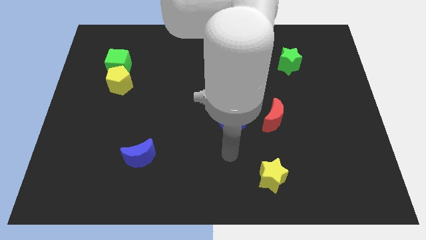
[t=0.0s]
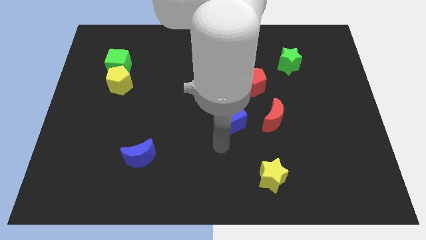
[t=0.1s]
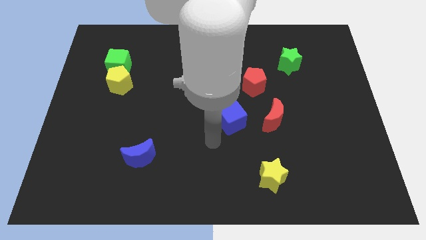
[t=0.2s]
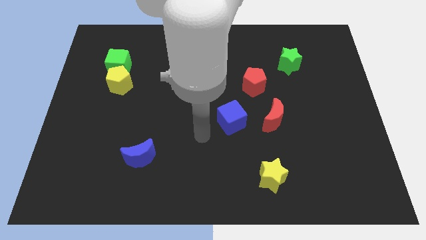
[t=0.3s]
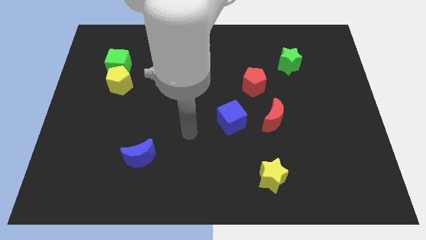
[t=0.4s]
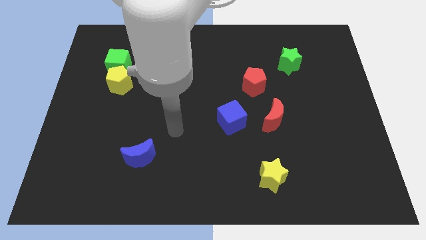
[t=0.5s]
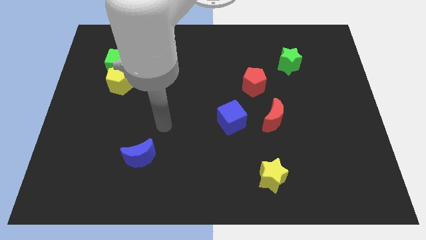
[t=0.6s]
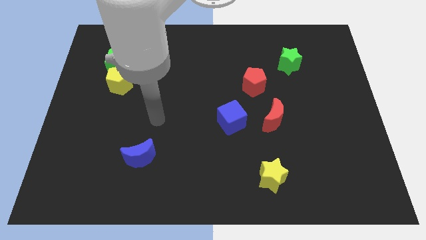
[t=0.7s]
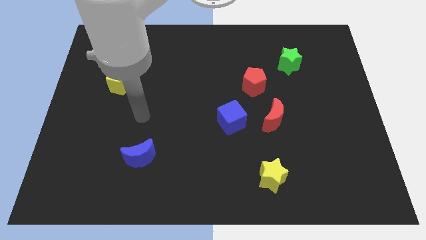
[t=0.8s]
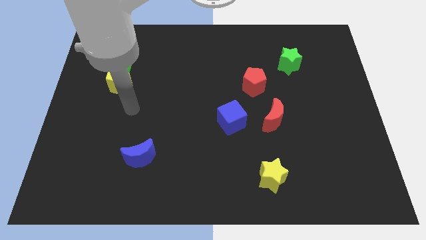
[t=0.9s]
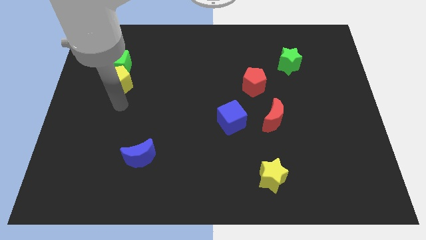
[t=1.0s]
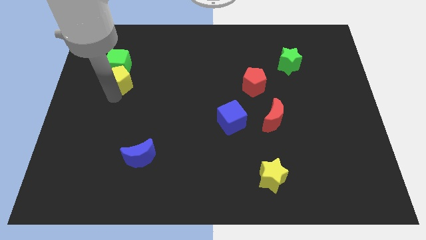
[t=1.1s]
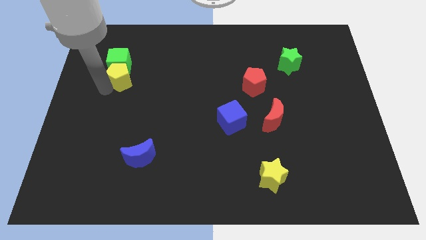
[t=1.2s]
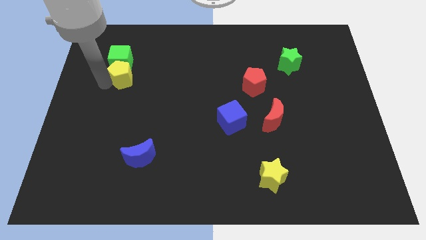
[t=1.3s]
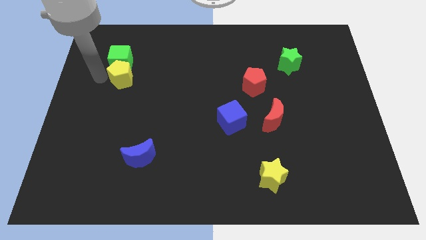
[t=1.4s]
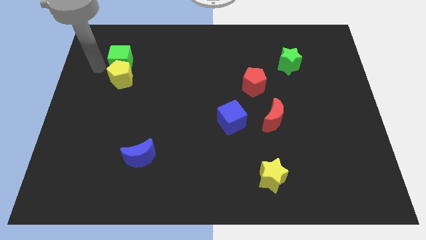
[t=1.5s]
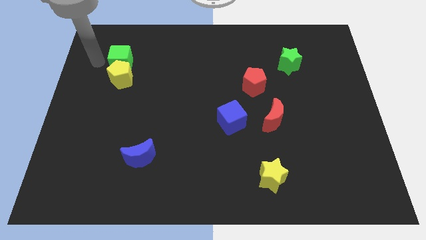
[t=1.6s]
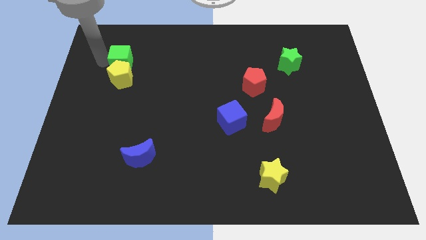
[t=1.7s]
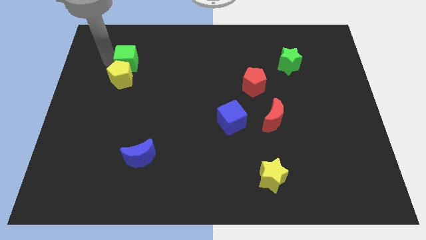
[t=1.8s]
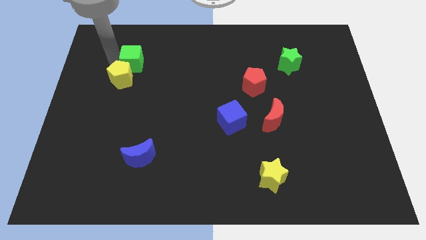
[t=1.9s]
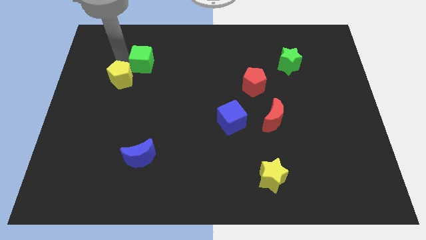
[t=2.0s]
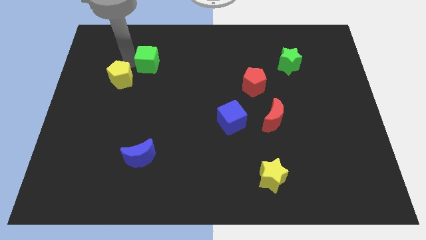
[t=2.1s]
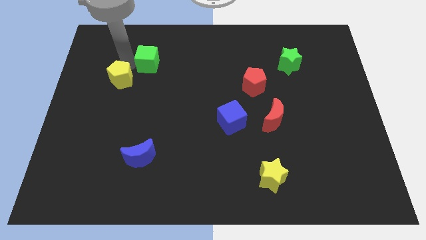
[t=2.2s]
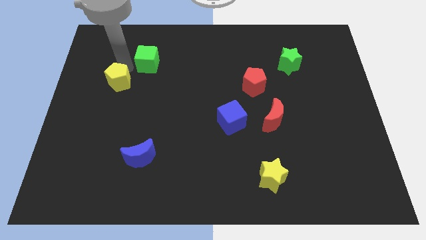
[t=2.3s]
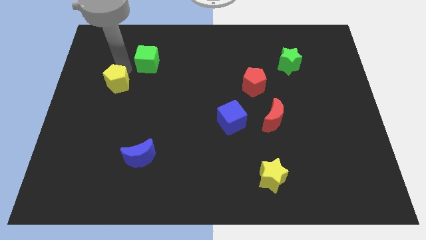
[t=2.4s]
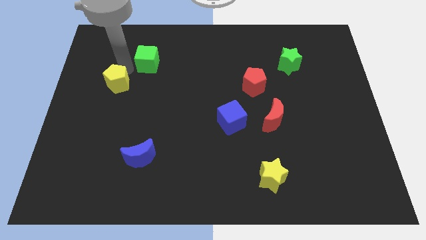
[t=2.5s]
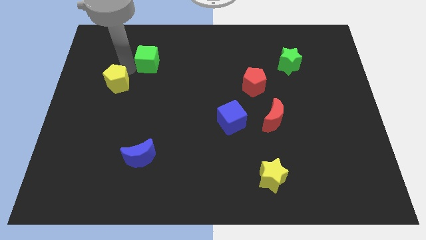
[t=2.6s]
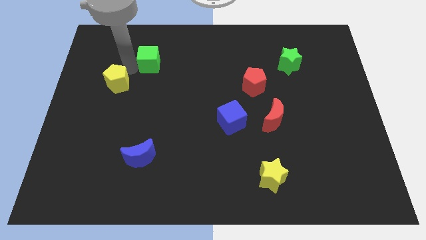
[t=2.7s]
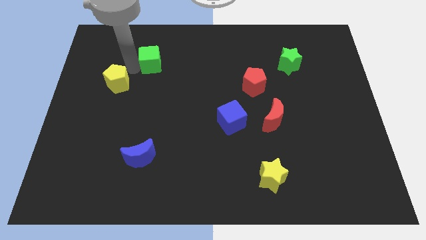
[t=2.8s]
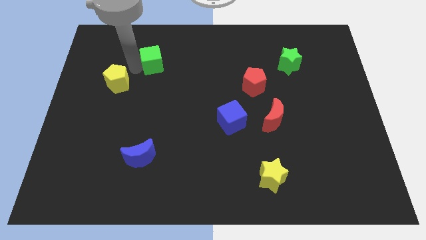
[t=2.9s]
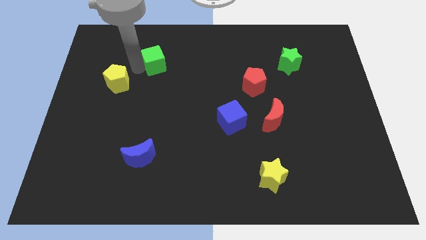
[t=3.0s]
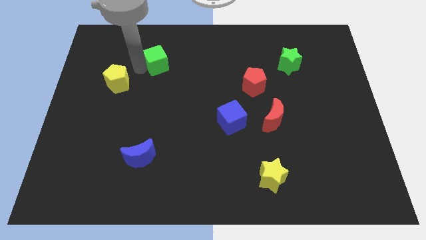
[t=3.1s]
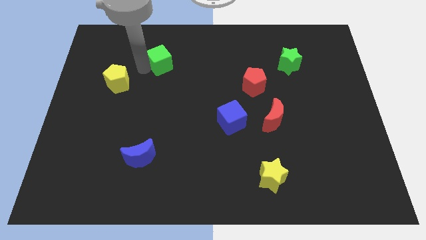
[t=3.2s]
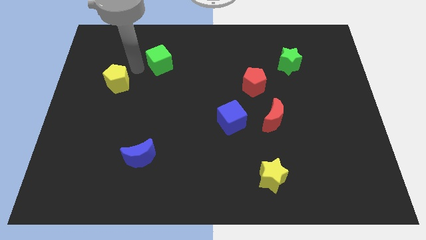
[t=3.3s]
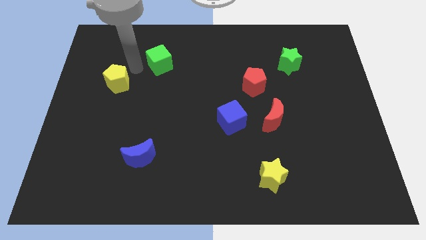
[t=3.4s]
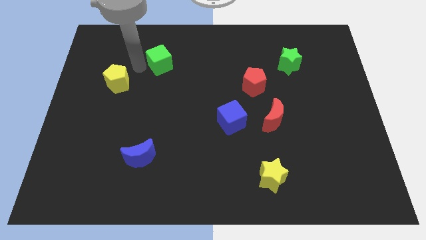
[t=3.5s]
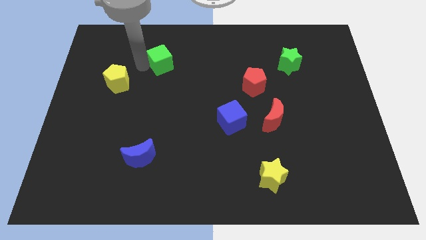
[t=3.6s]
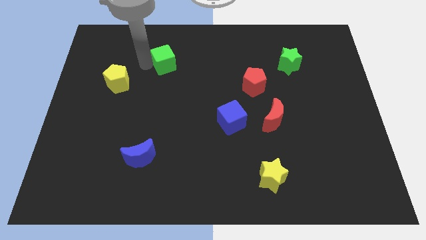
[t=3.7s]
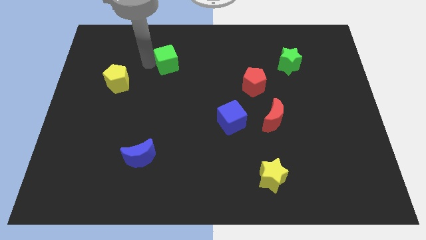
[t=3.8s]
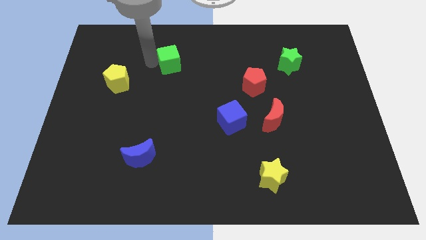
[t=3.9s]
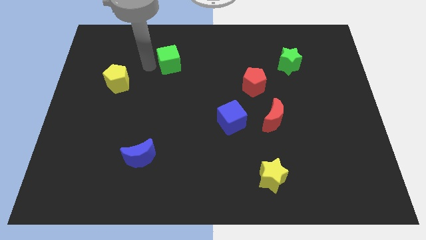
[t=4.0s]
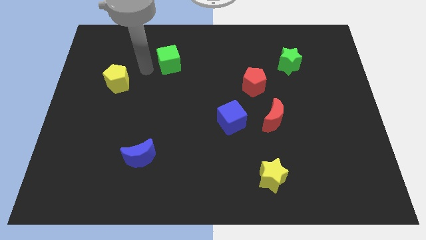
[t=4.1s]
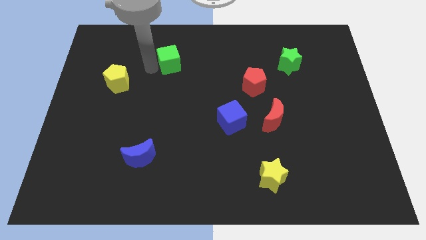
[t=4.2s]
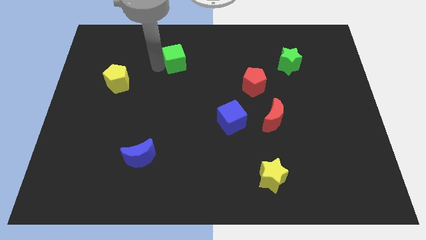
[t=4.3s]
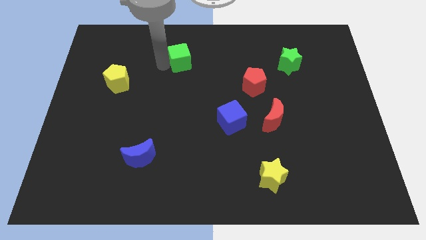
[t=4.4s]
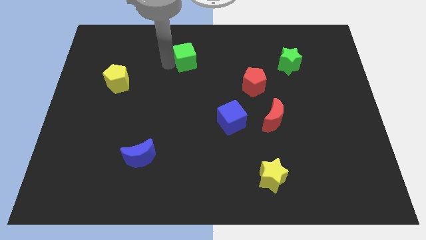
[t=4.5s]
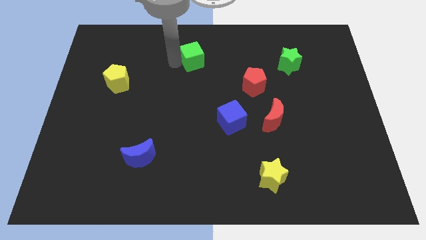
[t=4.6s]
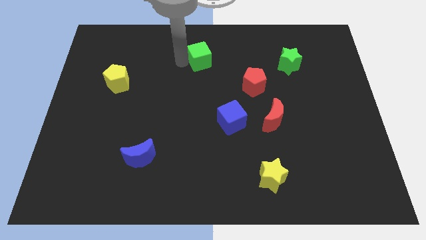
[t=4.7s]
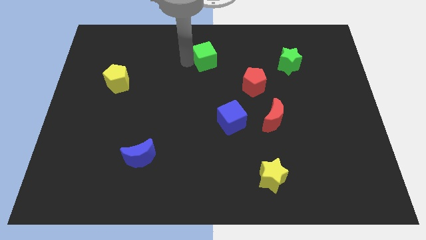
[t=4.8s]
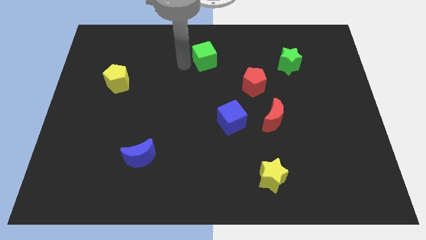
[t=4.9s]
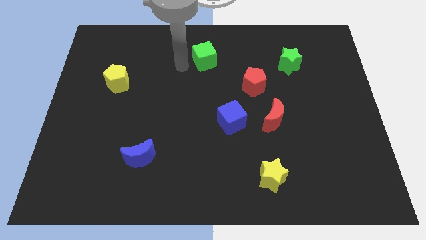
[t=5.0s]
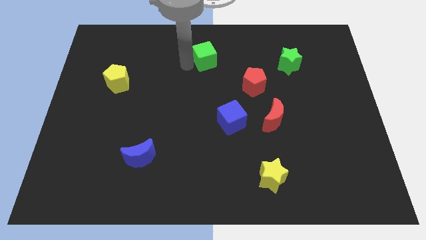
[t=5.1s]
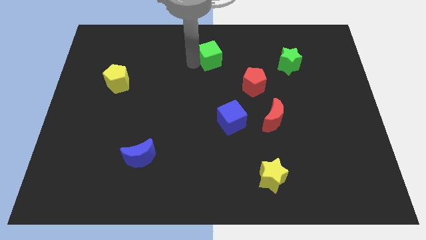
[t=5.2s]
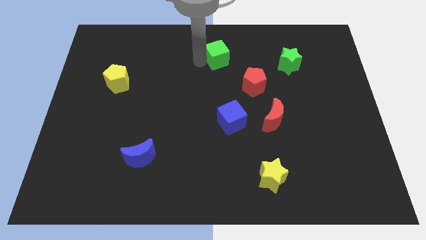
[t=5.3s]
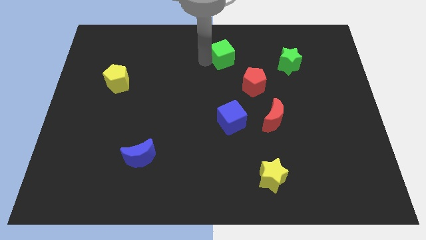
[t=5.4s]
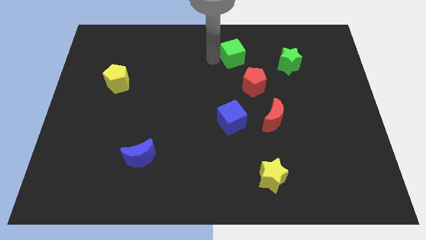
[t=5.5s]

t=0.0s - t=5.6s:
push the green cube to the top side of the red pentagon

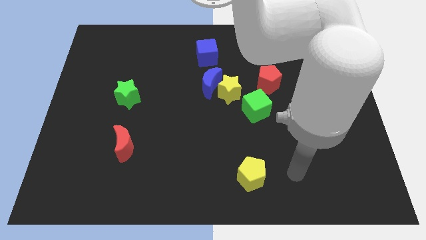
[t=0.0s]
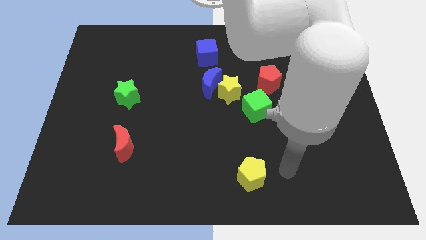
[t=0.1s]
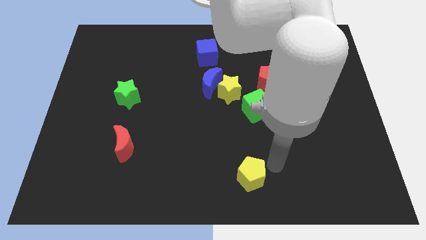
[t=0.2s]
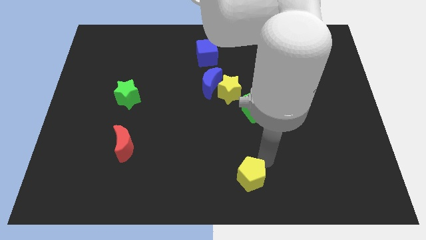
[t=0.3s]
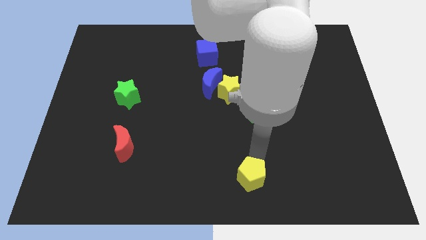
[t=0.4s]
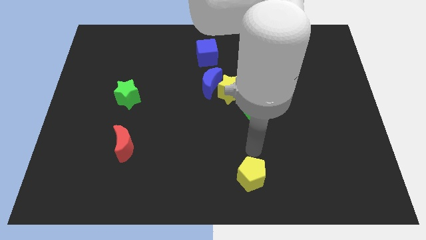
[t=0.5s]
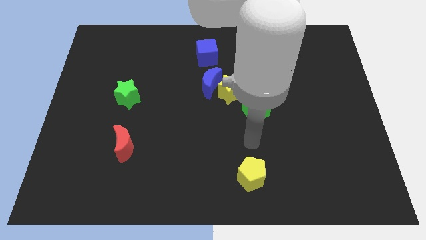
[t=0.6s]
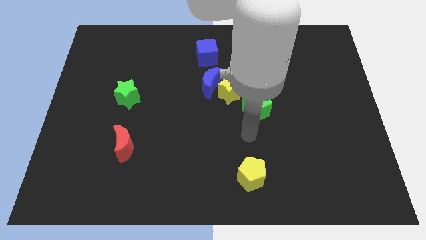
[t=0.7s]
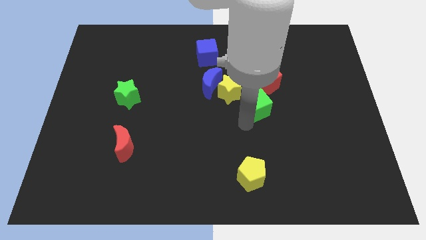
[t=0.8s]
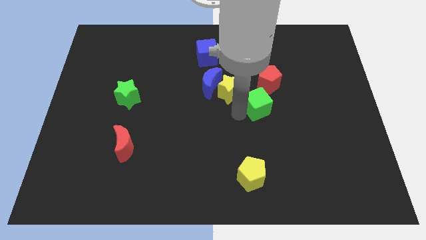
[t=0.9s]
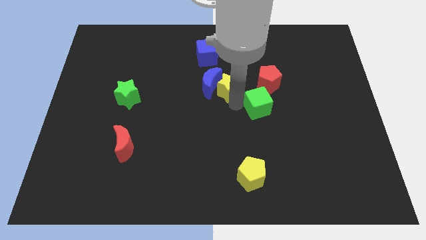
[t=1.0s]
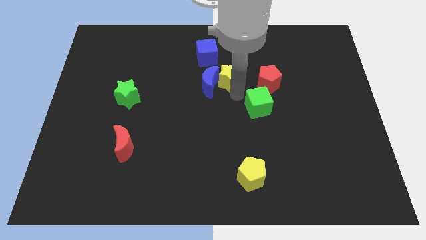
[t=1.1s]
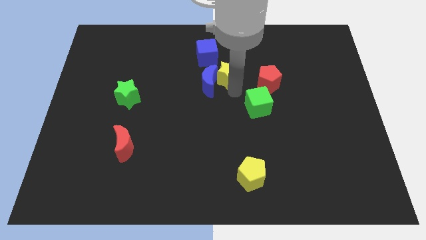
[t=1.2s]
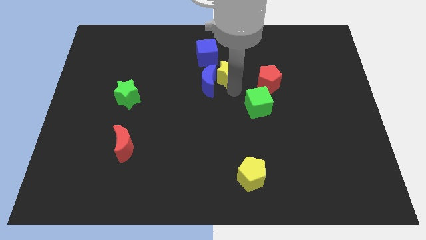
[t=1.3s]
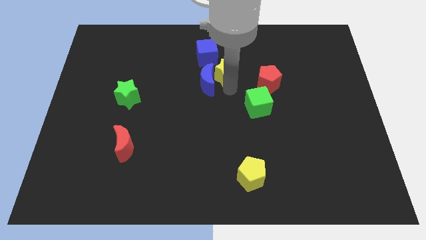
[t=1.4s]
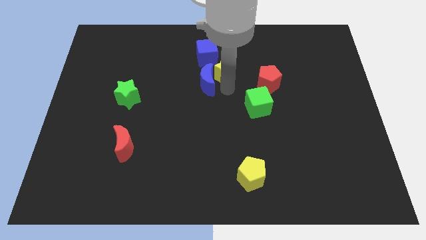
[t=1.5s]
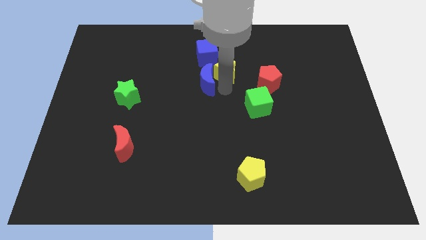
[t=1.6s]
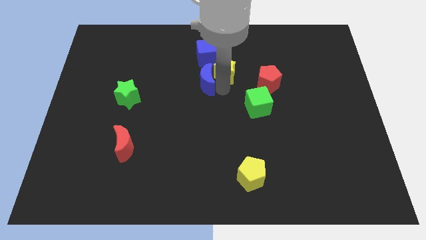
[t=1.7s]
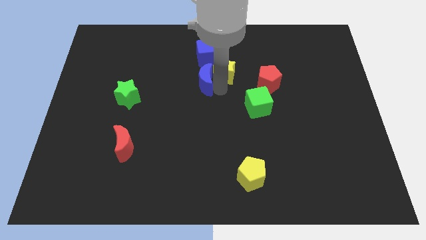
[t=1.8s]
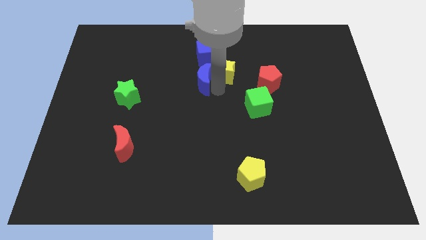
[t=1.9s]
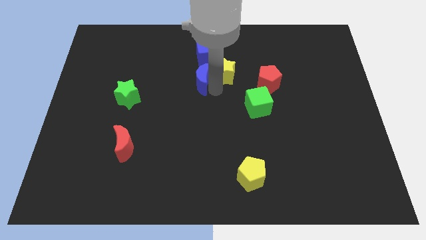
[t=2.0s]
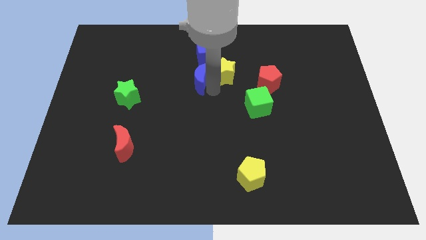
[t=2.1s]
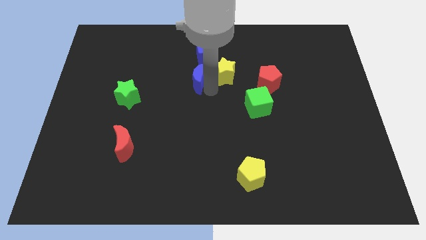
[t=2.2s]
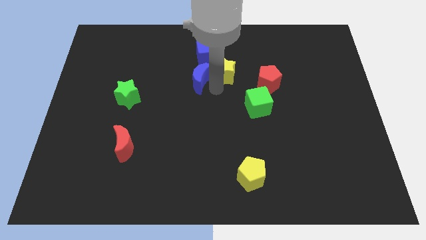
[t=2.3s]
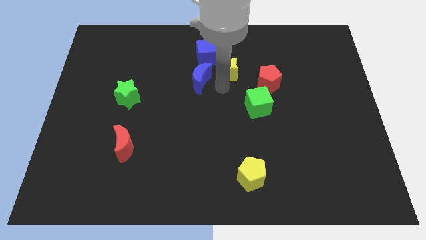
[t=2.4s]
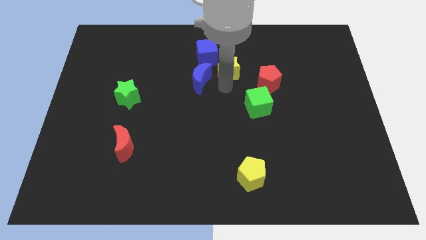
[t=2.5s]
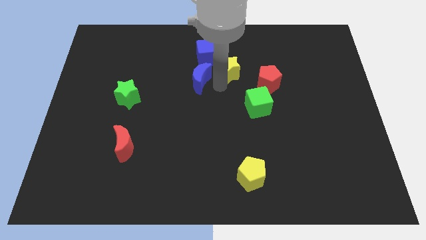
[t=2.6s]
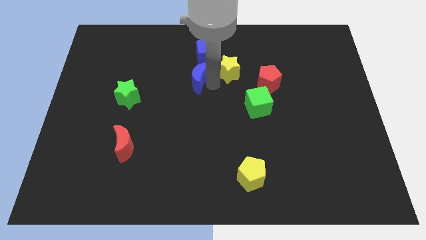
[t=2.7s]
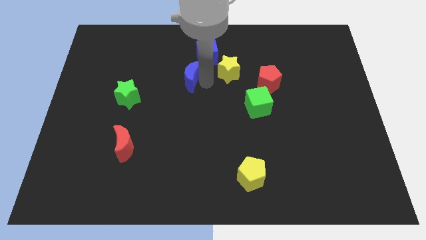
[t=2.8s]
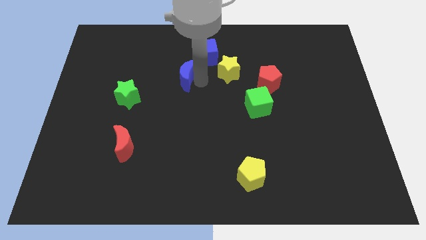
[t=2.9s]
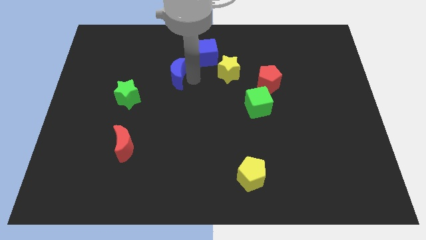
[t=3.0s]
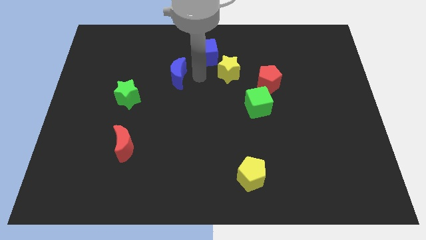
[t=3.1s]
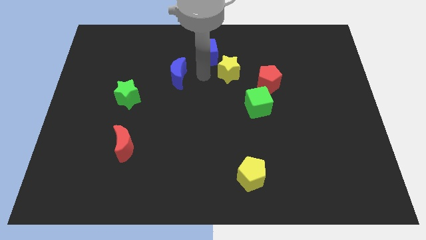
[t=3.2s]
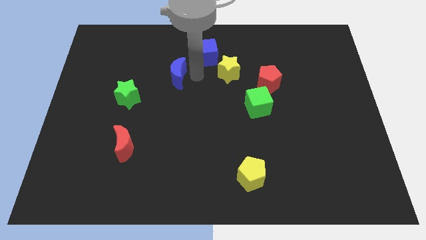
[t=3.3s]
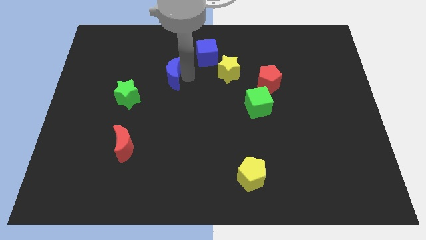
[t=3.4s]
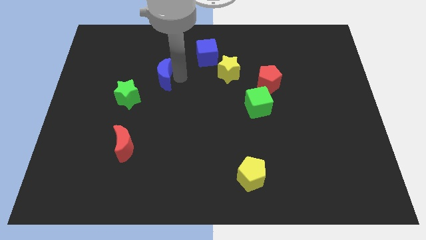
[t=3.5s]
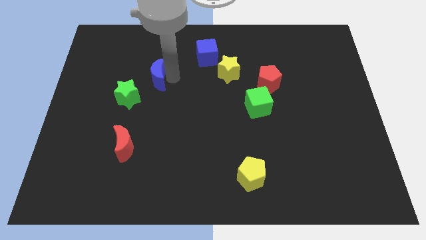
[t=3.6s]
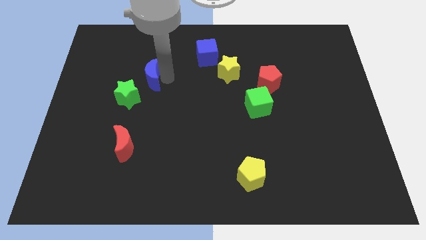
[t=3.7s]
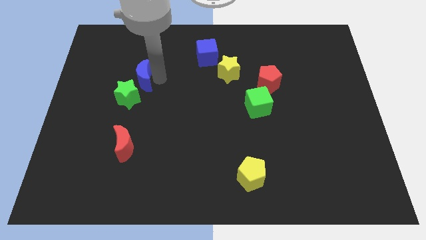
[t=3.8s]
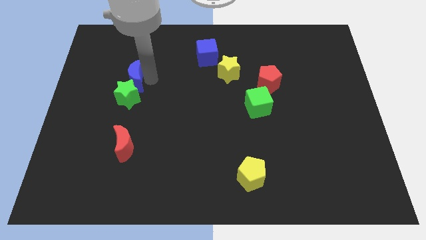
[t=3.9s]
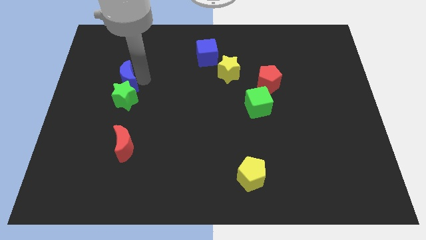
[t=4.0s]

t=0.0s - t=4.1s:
push the blue moon to the top left of the green star
